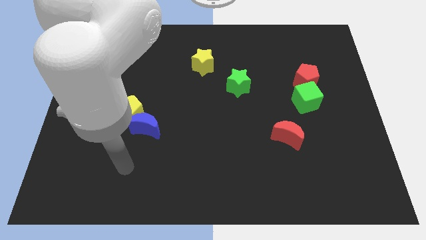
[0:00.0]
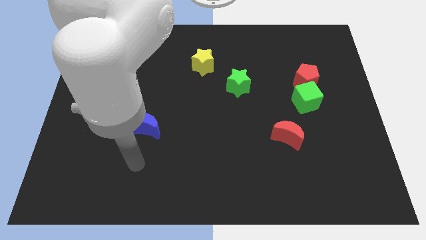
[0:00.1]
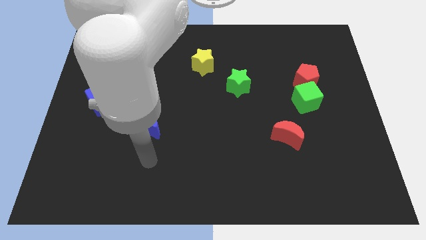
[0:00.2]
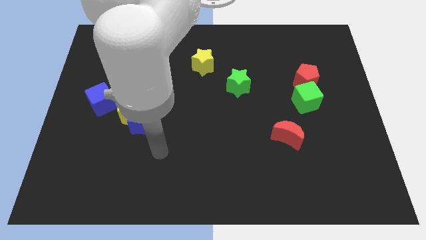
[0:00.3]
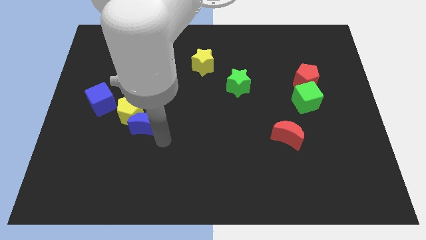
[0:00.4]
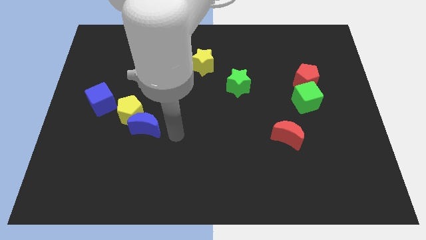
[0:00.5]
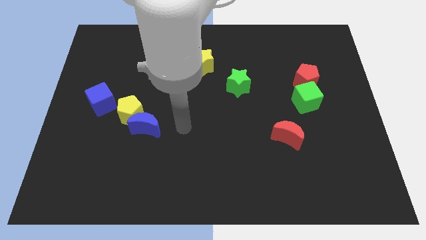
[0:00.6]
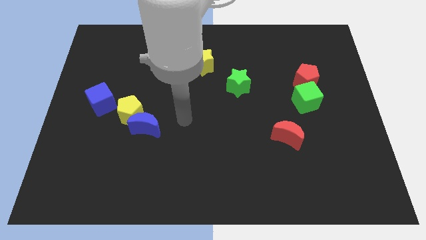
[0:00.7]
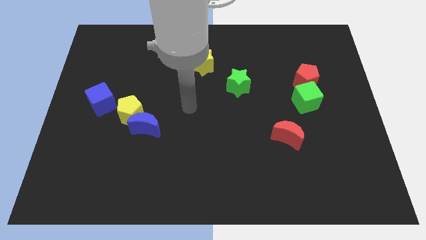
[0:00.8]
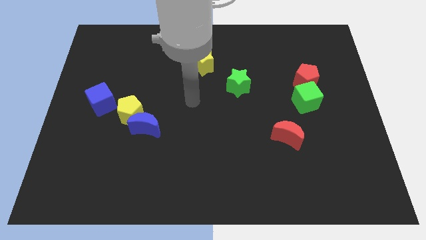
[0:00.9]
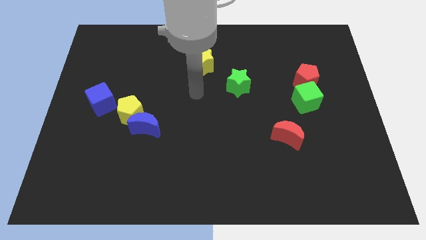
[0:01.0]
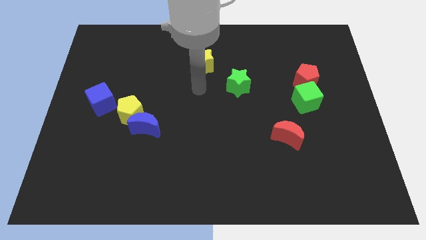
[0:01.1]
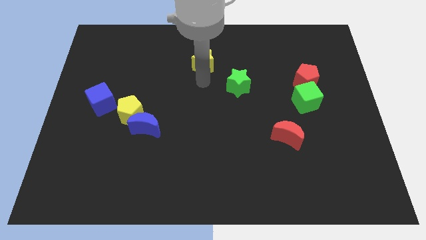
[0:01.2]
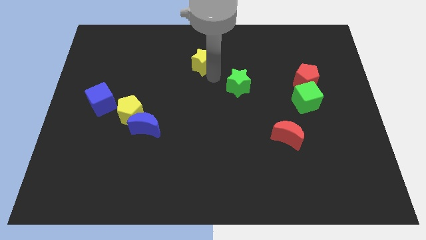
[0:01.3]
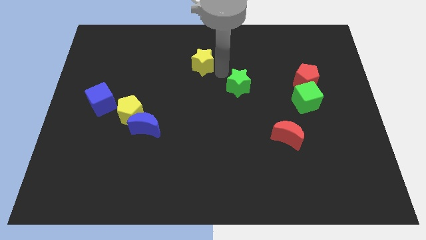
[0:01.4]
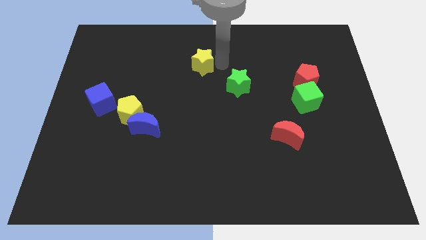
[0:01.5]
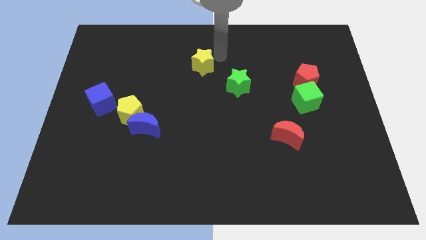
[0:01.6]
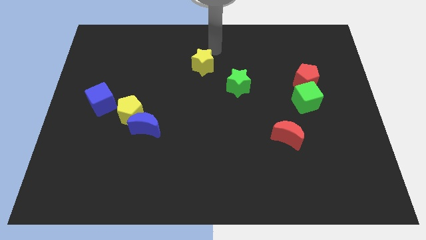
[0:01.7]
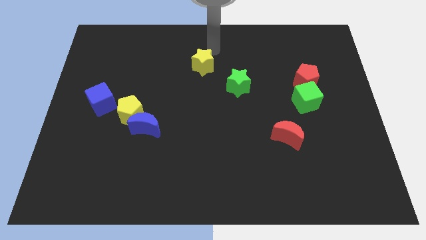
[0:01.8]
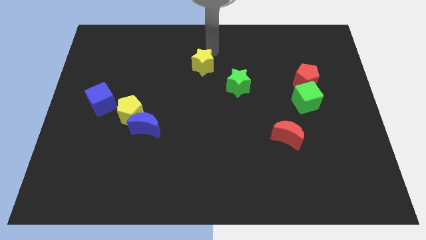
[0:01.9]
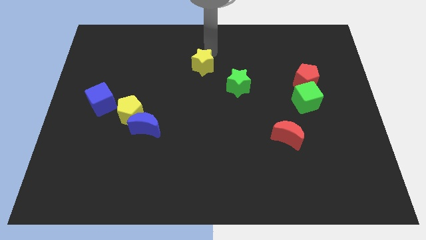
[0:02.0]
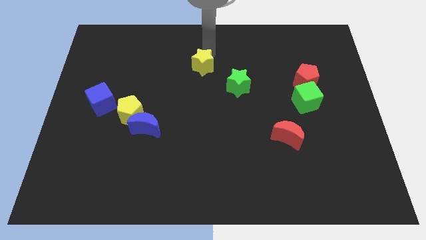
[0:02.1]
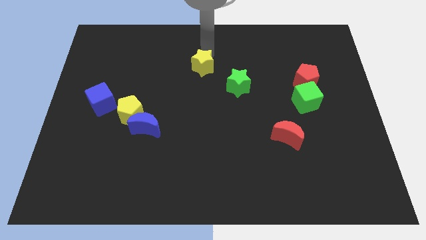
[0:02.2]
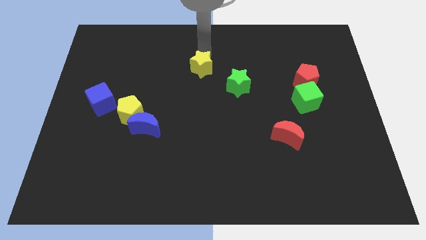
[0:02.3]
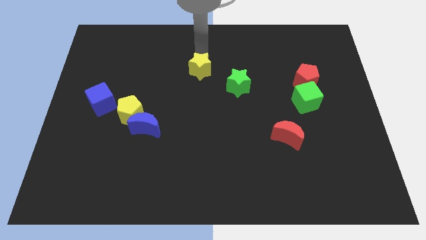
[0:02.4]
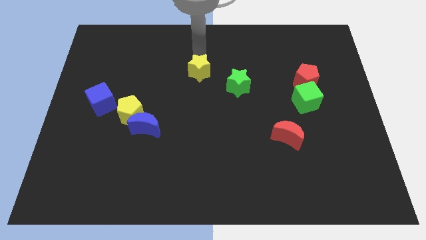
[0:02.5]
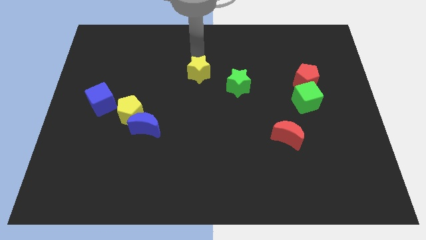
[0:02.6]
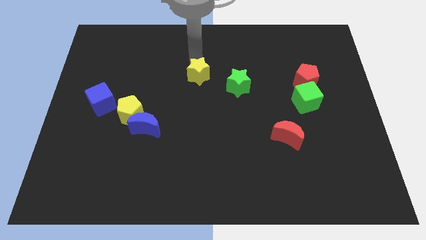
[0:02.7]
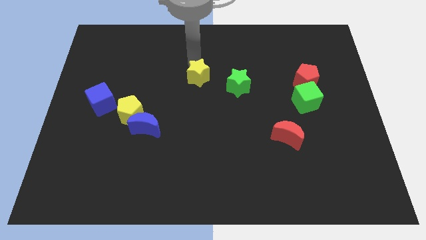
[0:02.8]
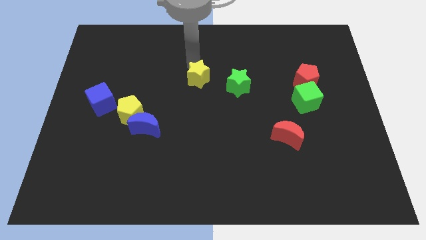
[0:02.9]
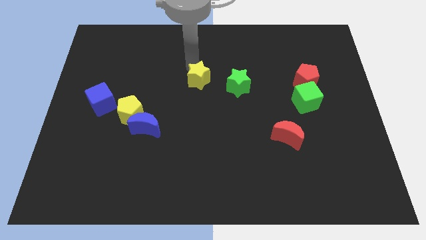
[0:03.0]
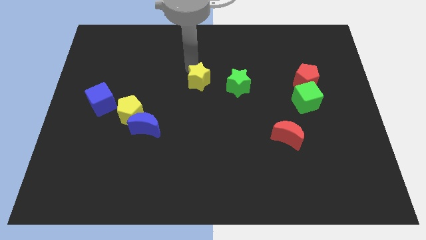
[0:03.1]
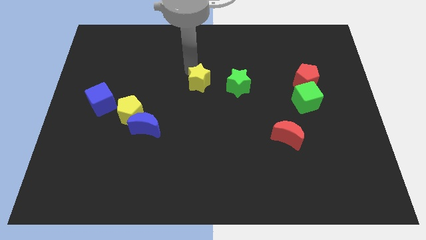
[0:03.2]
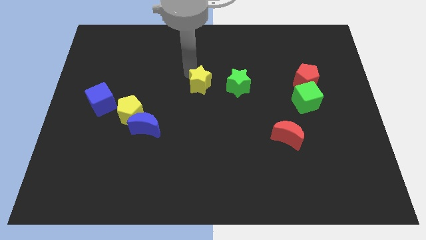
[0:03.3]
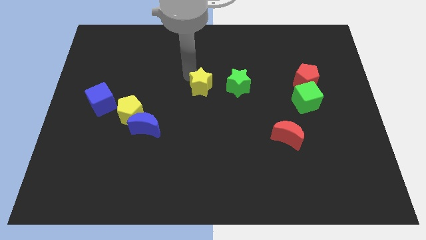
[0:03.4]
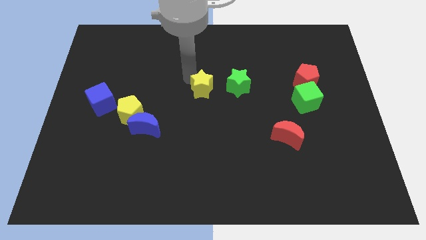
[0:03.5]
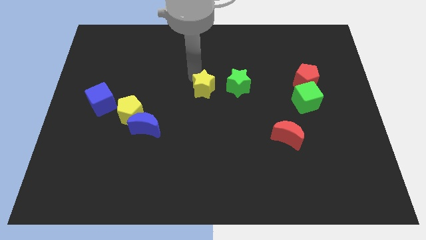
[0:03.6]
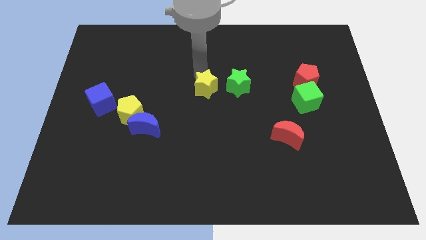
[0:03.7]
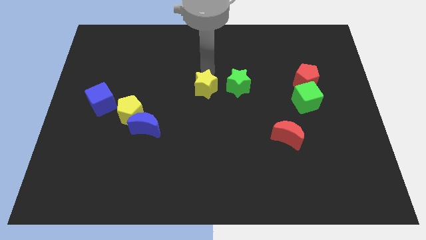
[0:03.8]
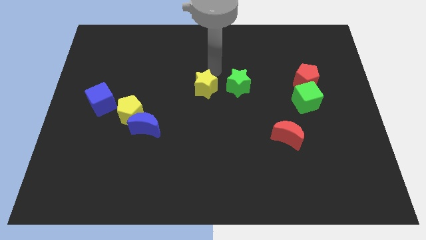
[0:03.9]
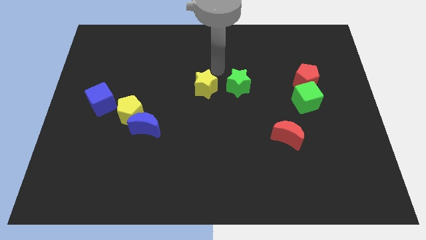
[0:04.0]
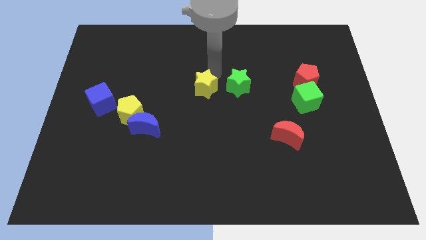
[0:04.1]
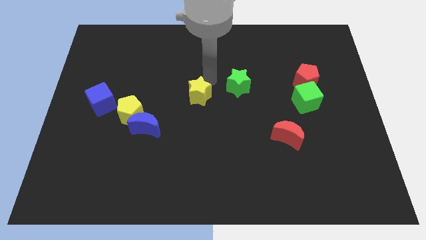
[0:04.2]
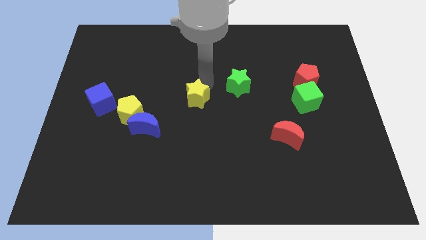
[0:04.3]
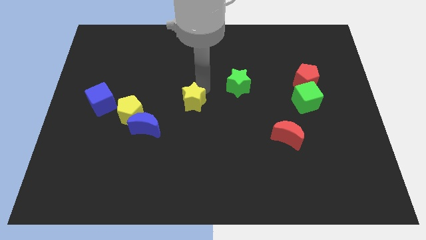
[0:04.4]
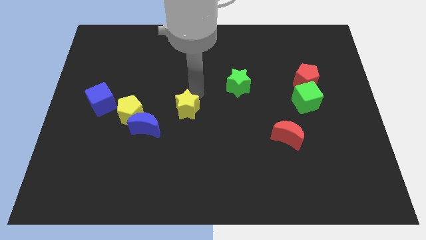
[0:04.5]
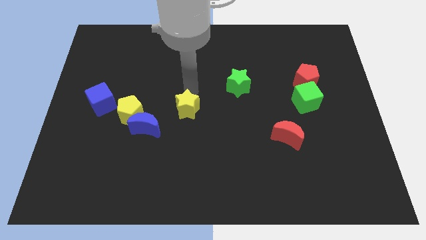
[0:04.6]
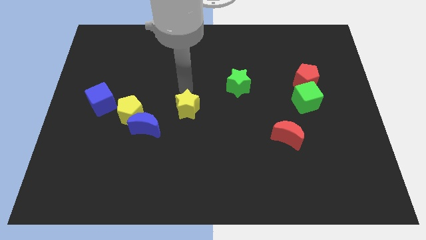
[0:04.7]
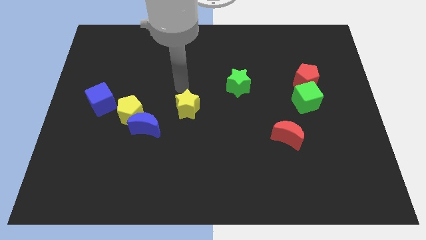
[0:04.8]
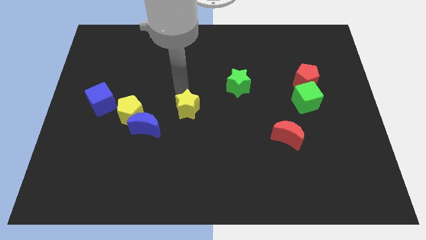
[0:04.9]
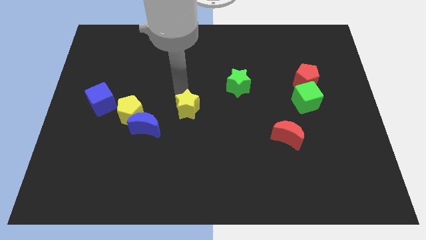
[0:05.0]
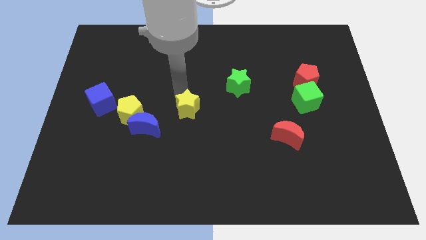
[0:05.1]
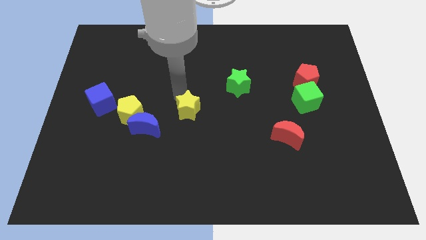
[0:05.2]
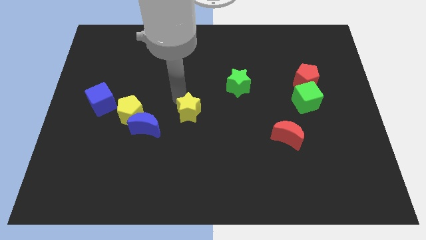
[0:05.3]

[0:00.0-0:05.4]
put the yellow star right of the blue moon

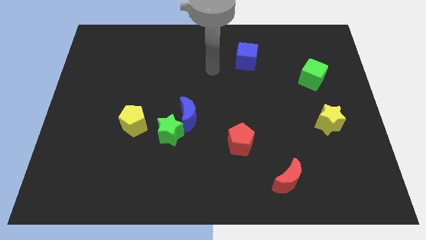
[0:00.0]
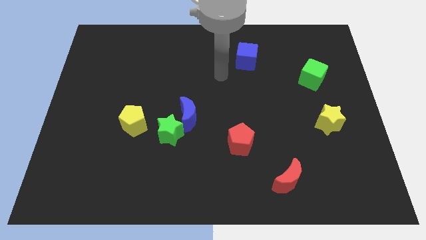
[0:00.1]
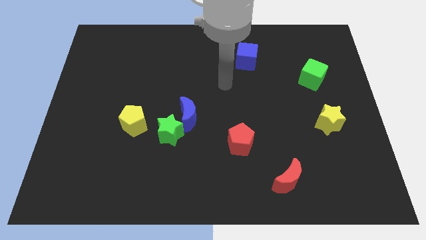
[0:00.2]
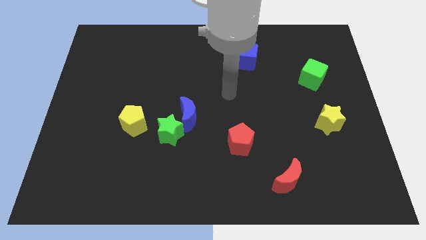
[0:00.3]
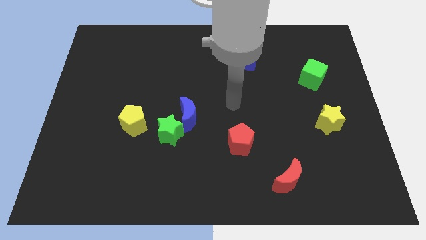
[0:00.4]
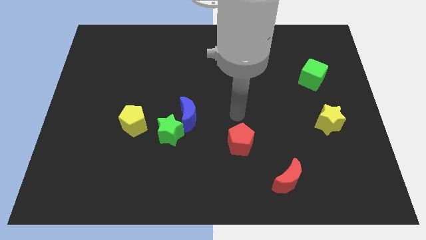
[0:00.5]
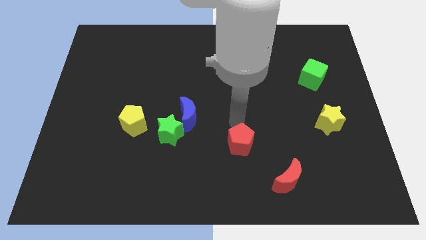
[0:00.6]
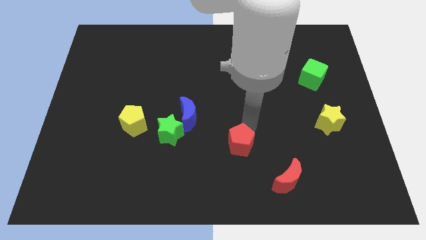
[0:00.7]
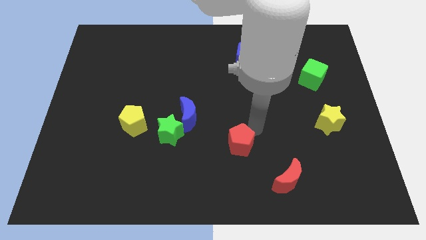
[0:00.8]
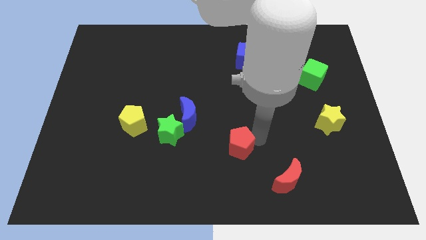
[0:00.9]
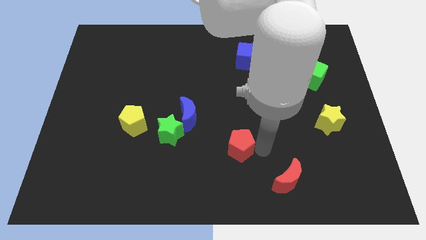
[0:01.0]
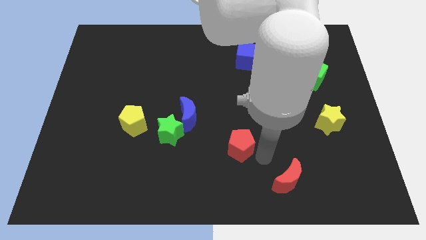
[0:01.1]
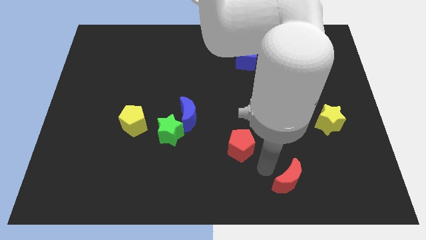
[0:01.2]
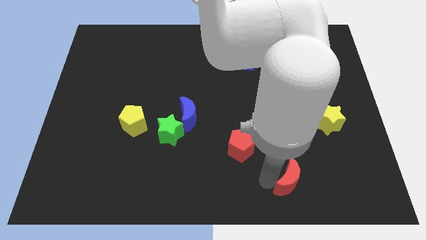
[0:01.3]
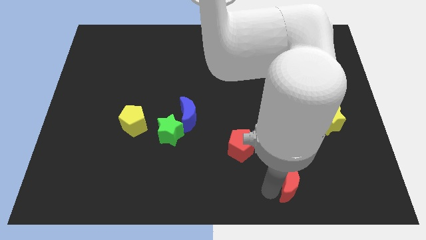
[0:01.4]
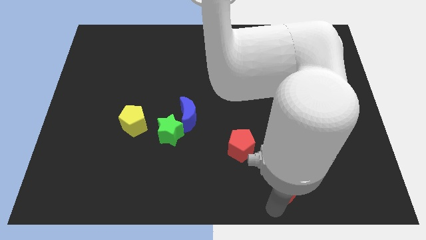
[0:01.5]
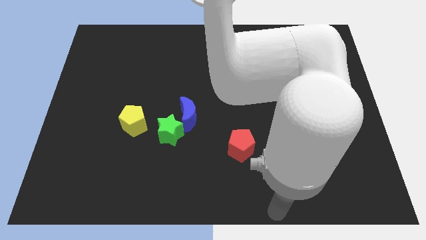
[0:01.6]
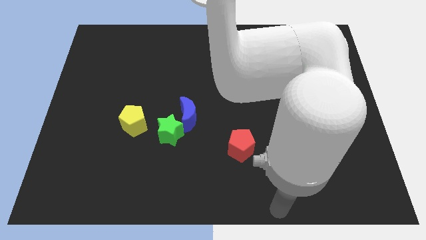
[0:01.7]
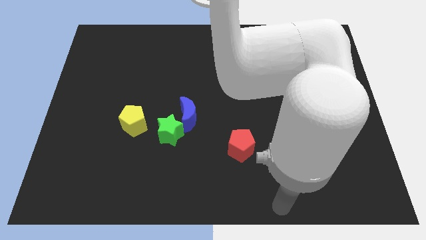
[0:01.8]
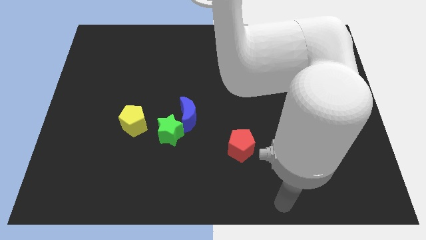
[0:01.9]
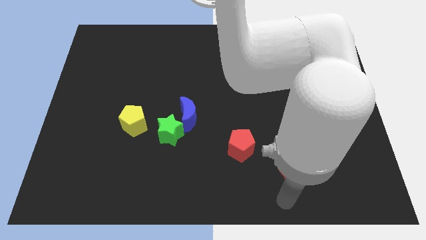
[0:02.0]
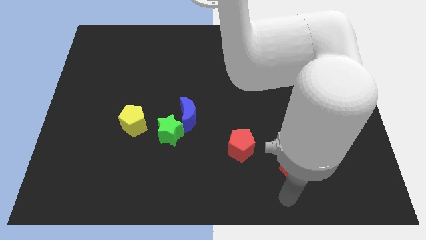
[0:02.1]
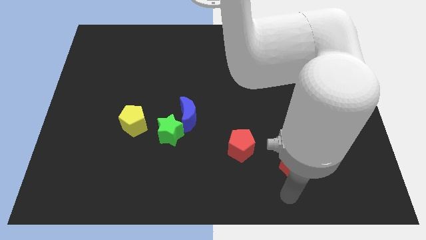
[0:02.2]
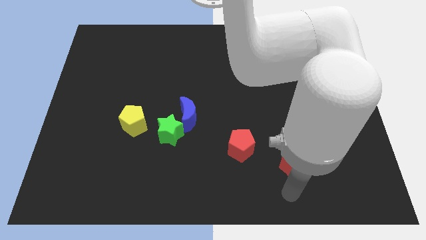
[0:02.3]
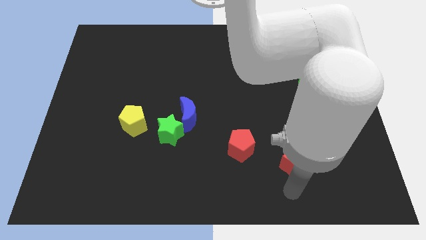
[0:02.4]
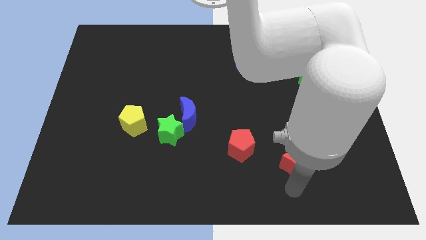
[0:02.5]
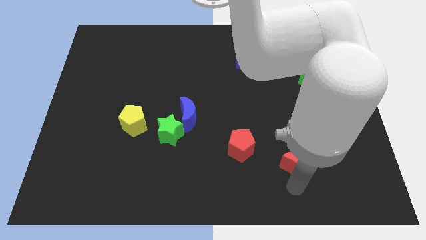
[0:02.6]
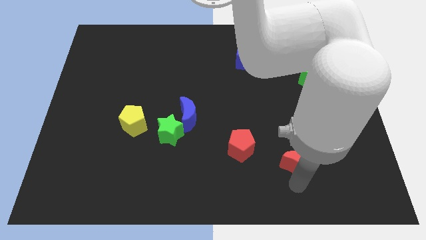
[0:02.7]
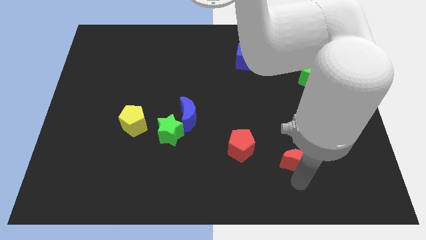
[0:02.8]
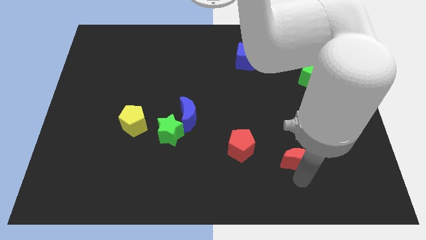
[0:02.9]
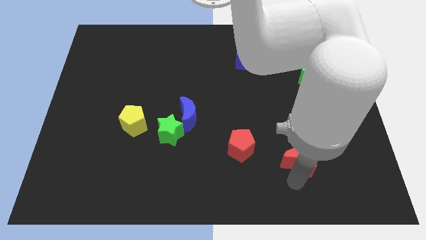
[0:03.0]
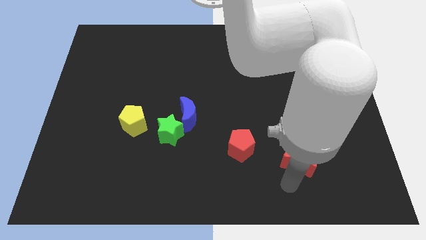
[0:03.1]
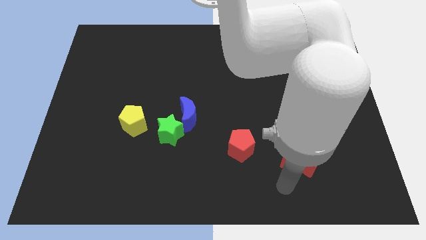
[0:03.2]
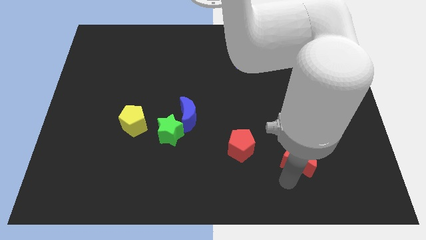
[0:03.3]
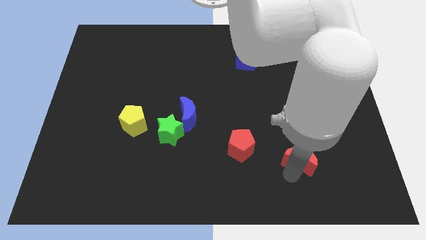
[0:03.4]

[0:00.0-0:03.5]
put the red moon diagonally down and to the left of the yellow star
